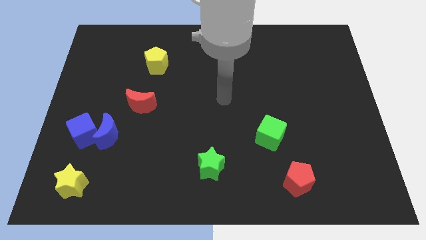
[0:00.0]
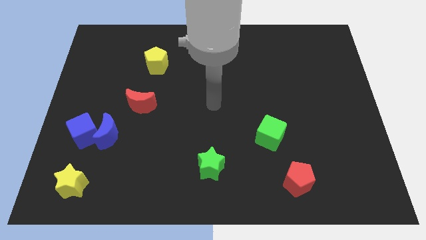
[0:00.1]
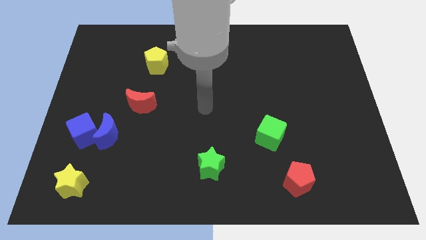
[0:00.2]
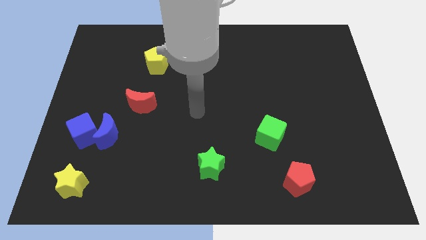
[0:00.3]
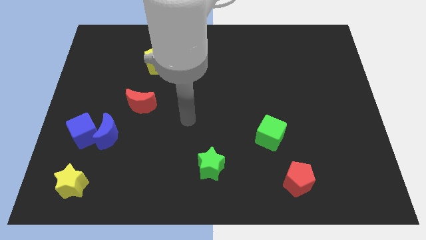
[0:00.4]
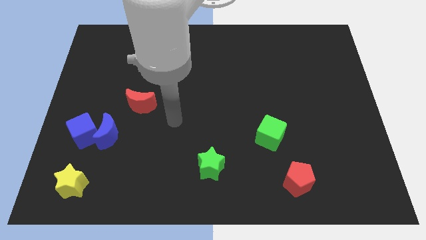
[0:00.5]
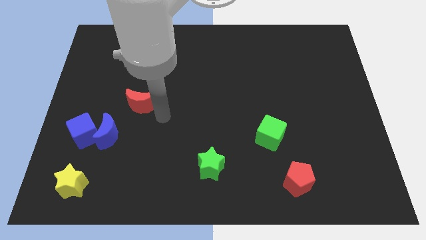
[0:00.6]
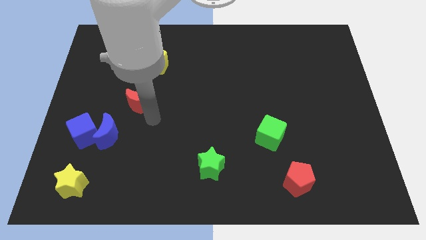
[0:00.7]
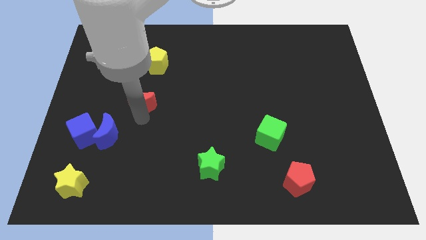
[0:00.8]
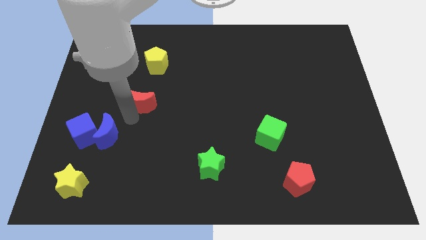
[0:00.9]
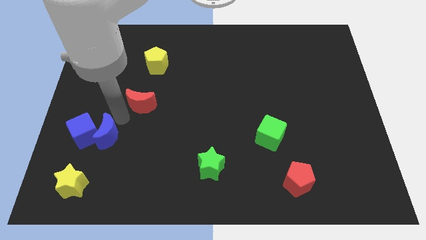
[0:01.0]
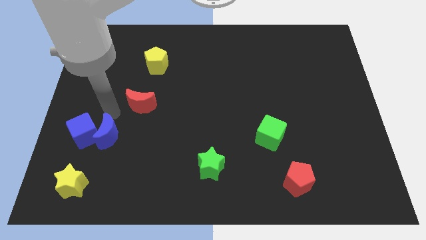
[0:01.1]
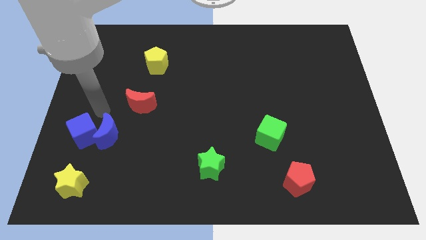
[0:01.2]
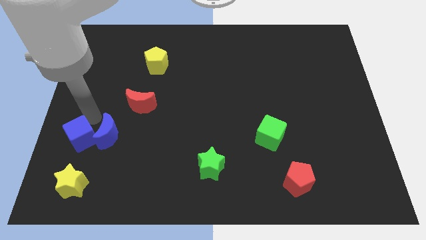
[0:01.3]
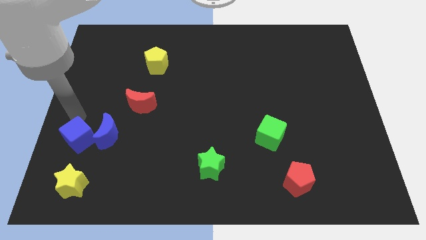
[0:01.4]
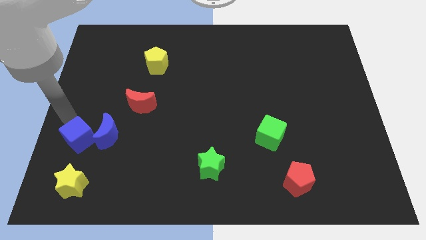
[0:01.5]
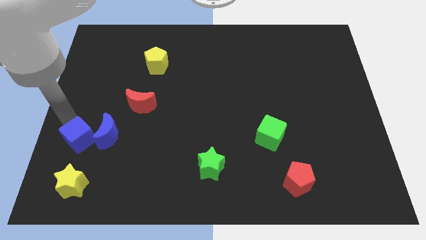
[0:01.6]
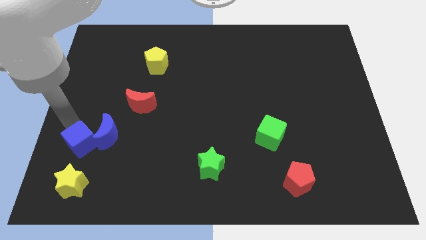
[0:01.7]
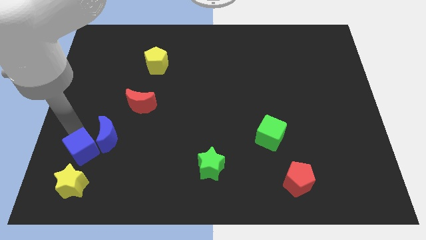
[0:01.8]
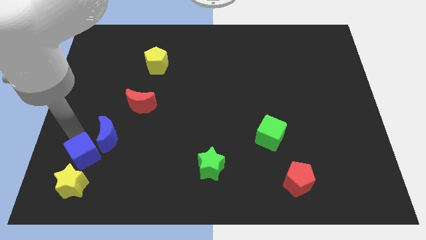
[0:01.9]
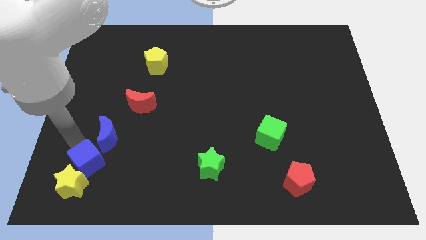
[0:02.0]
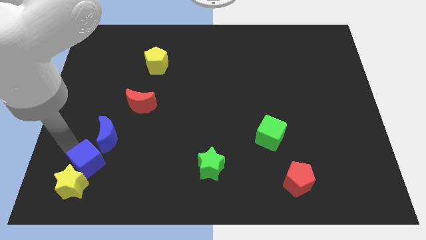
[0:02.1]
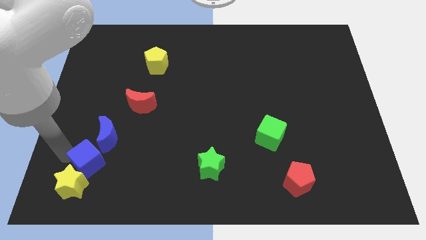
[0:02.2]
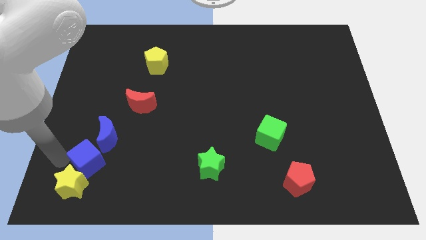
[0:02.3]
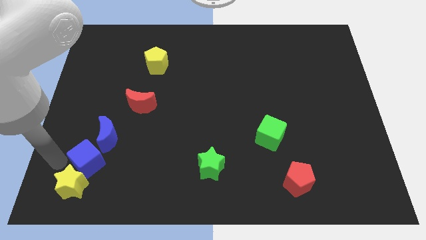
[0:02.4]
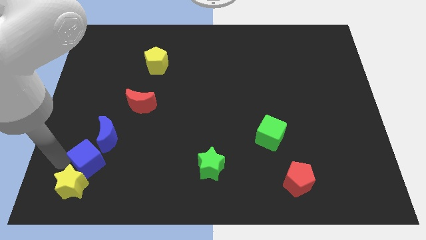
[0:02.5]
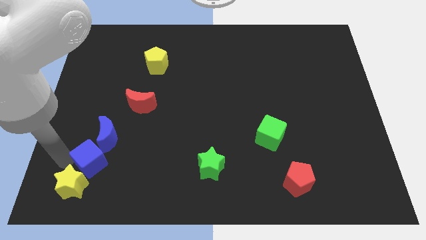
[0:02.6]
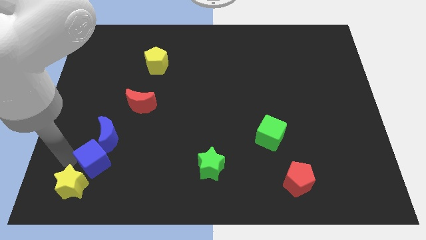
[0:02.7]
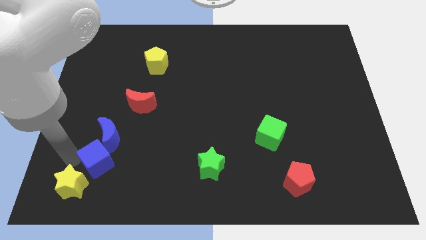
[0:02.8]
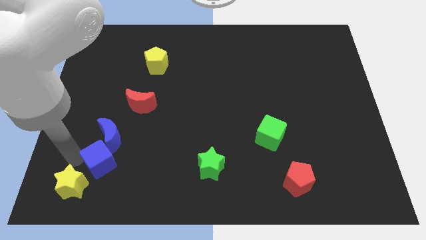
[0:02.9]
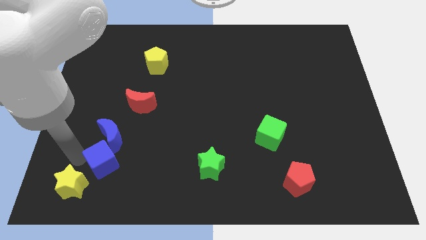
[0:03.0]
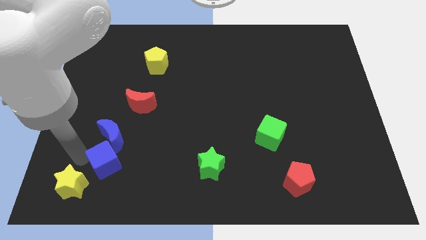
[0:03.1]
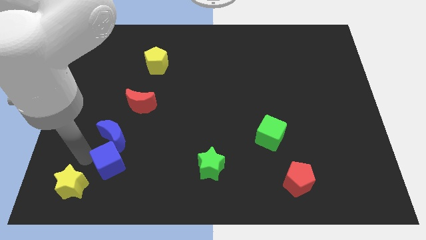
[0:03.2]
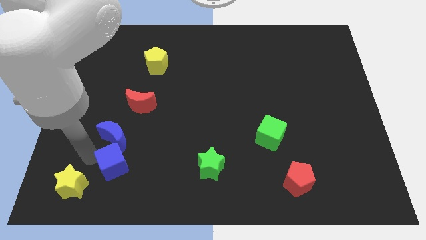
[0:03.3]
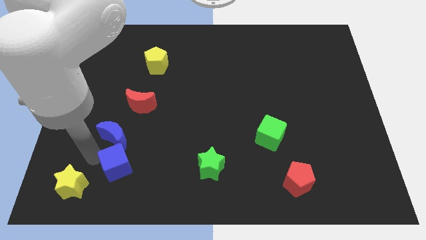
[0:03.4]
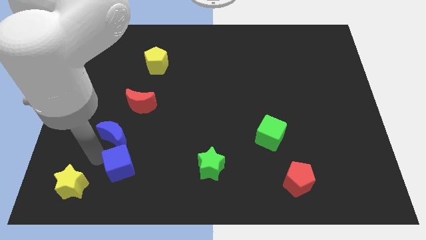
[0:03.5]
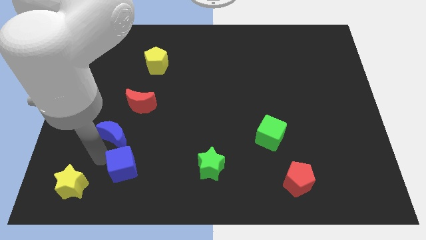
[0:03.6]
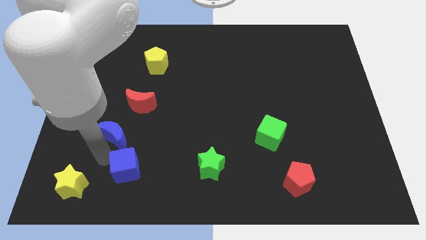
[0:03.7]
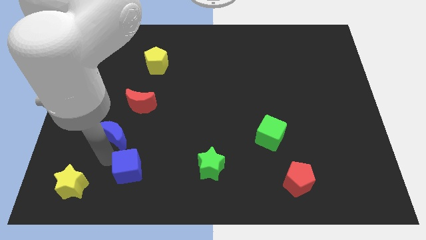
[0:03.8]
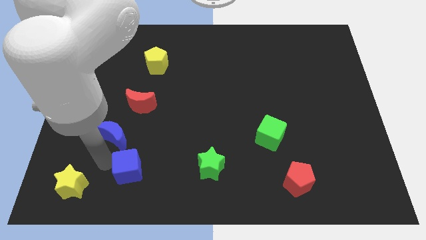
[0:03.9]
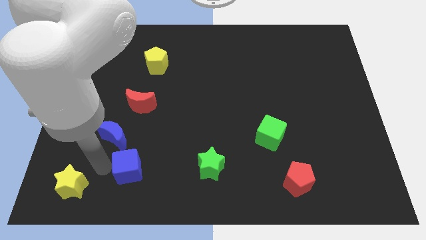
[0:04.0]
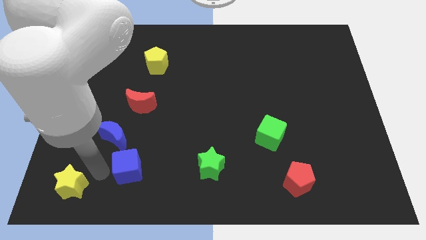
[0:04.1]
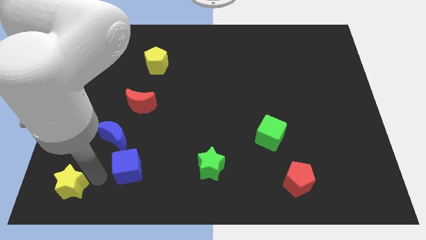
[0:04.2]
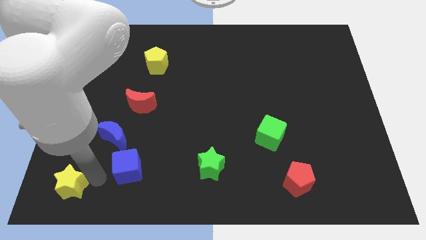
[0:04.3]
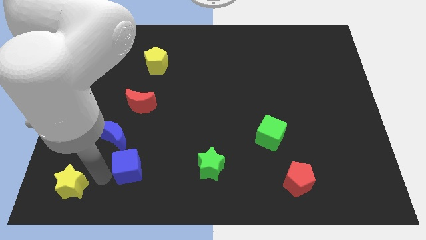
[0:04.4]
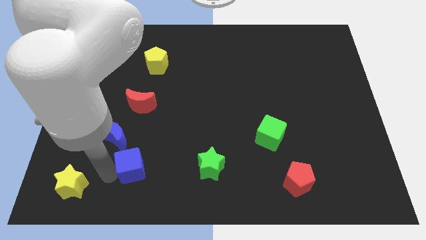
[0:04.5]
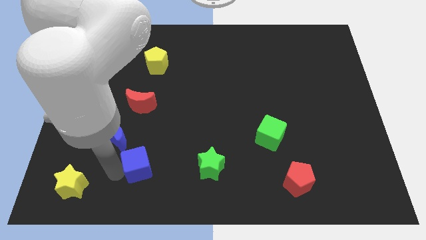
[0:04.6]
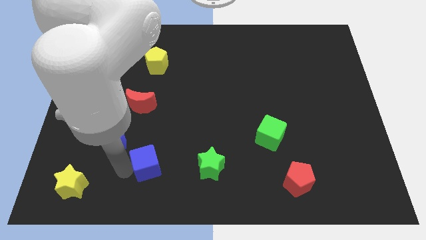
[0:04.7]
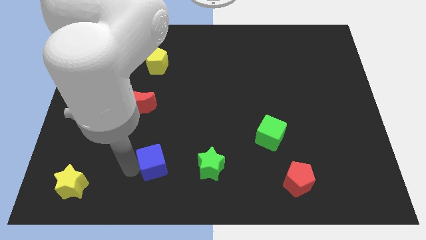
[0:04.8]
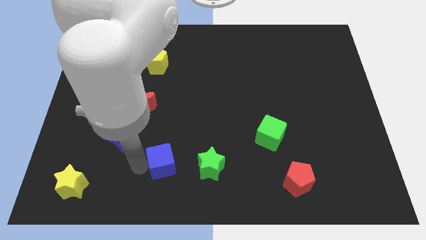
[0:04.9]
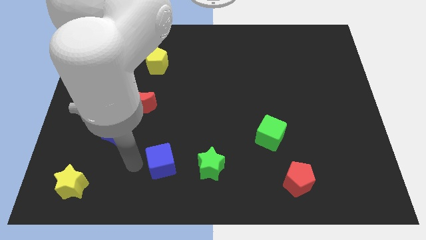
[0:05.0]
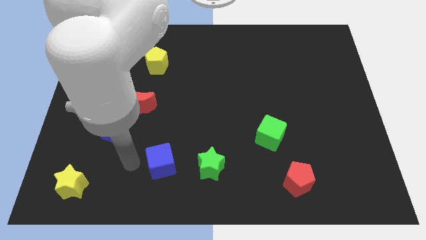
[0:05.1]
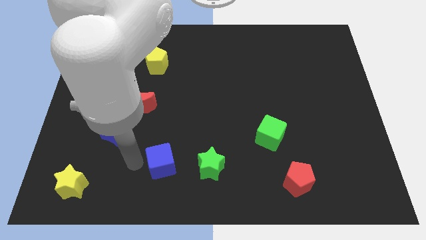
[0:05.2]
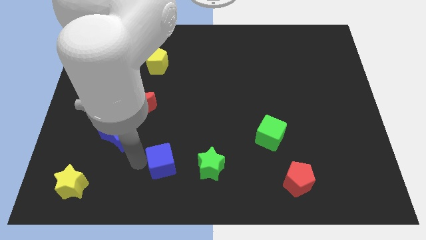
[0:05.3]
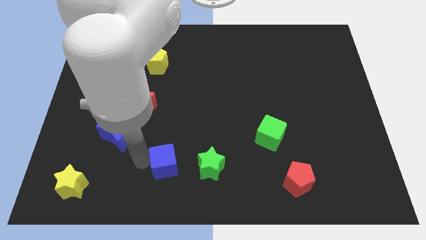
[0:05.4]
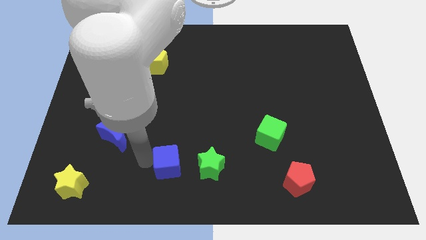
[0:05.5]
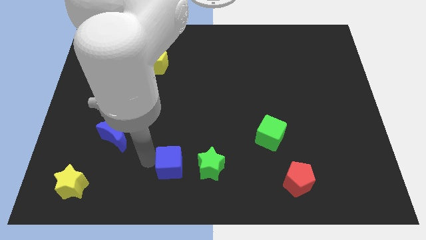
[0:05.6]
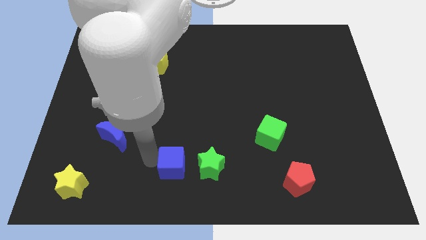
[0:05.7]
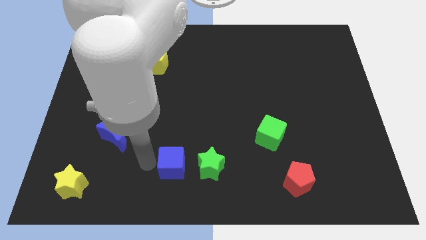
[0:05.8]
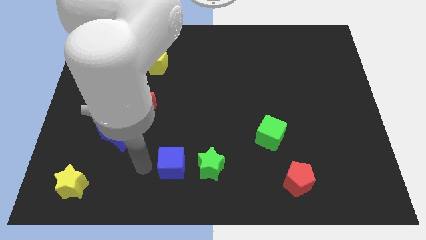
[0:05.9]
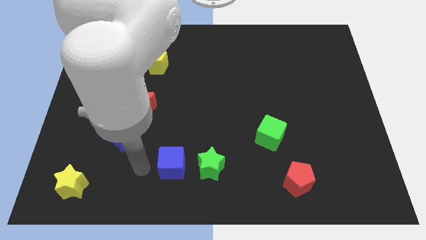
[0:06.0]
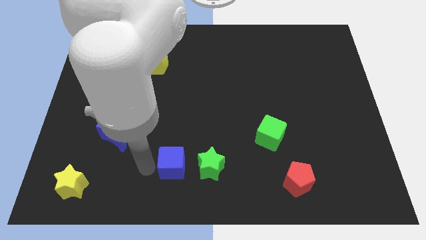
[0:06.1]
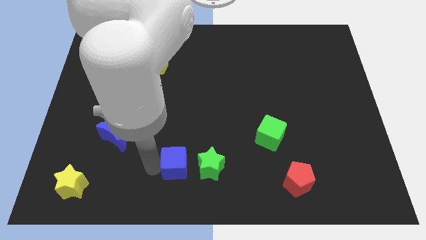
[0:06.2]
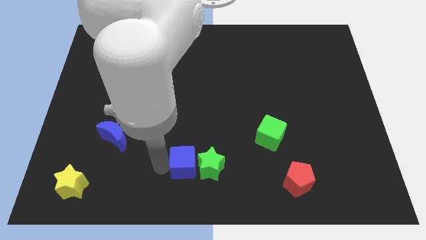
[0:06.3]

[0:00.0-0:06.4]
slide the blue cube to the green star

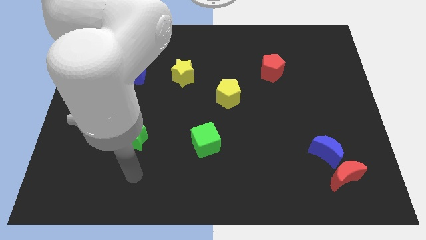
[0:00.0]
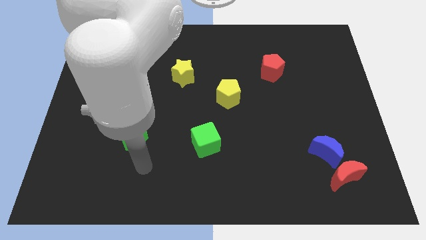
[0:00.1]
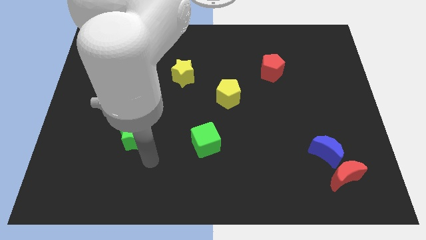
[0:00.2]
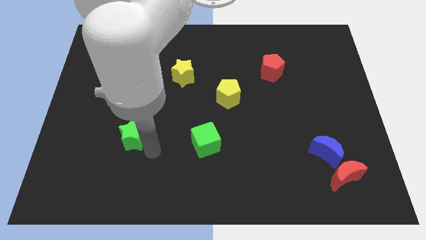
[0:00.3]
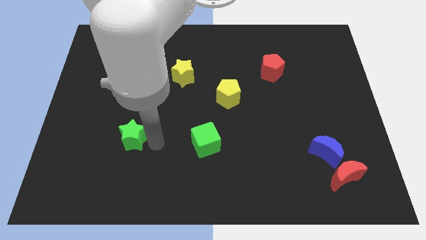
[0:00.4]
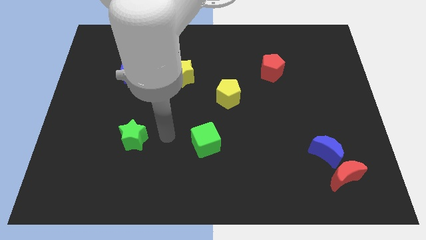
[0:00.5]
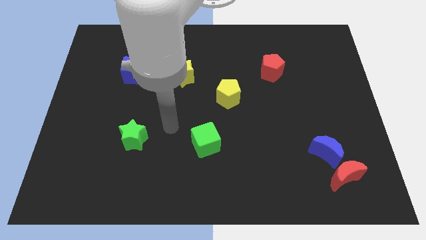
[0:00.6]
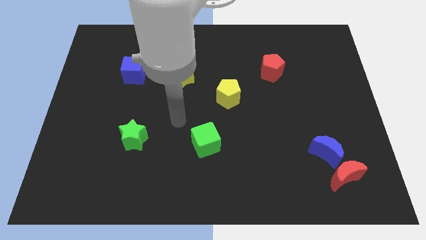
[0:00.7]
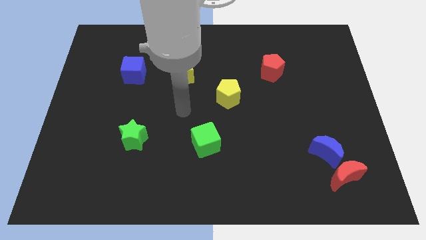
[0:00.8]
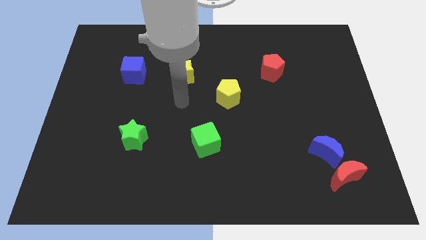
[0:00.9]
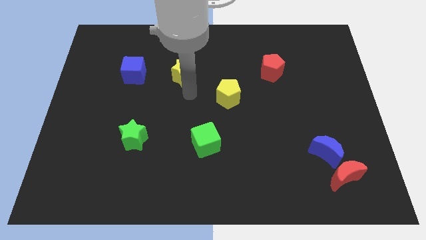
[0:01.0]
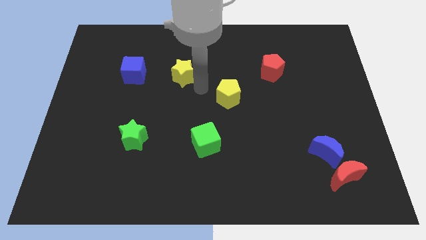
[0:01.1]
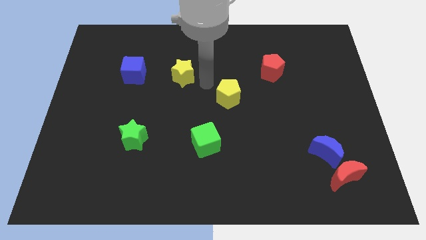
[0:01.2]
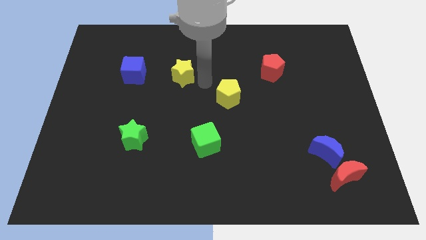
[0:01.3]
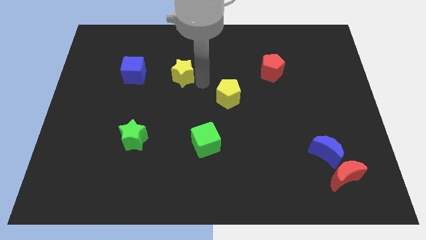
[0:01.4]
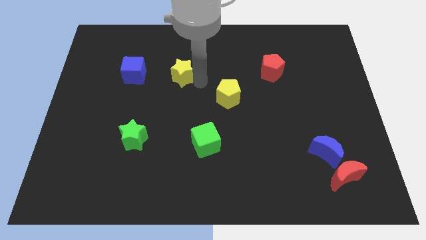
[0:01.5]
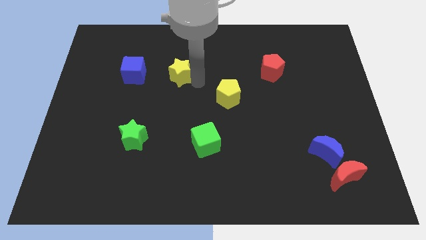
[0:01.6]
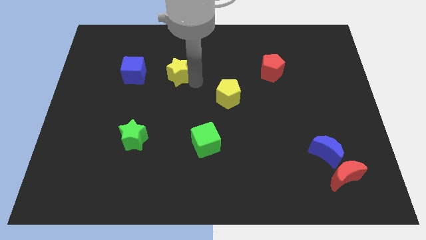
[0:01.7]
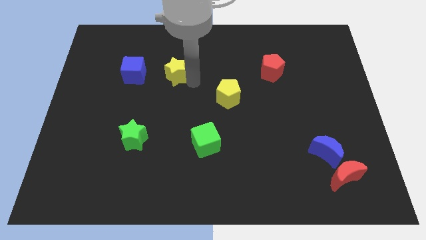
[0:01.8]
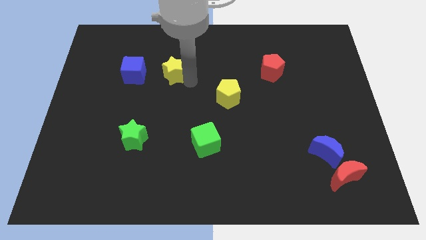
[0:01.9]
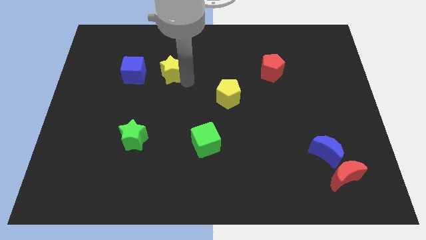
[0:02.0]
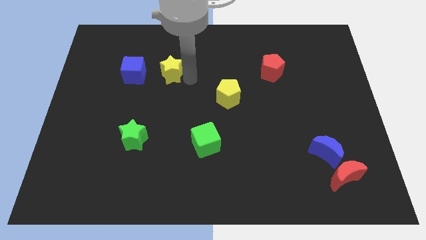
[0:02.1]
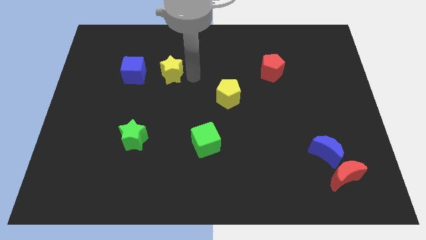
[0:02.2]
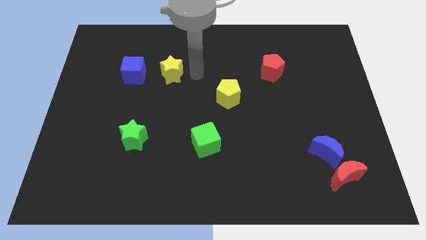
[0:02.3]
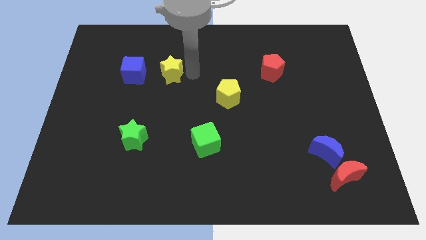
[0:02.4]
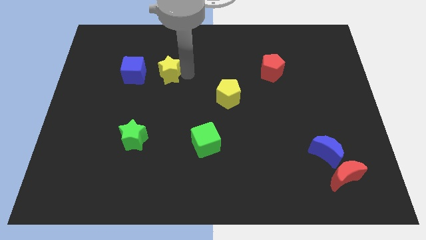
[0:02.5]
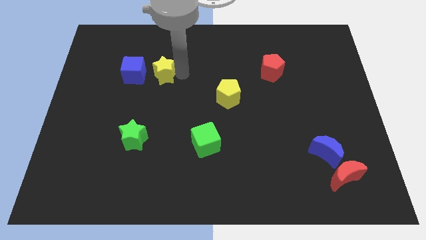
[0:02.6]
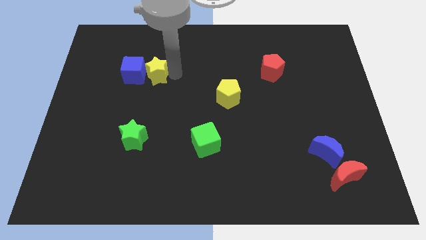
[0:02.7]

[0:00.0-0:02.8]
slide the yellow star to the blue cube
